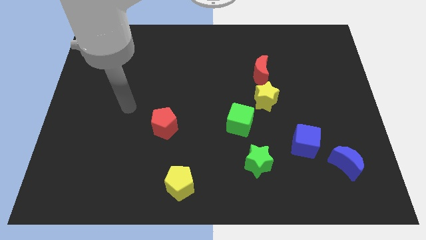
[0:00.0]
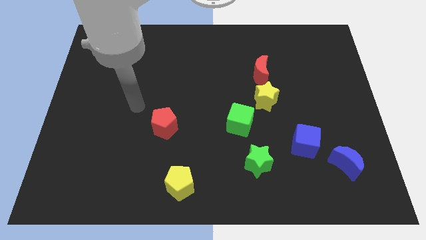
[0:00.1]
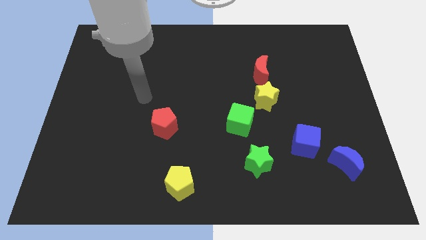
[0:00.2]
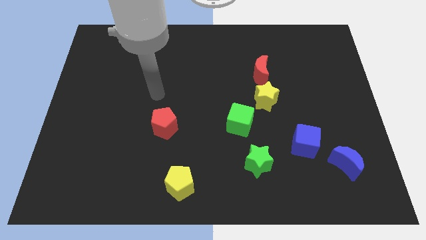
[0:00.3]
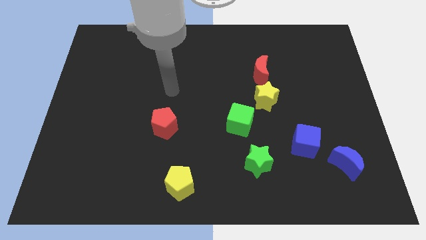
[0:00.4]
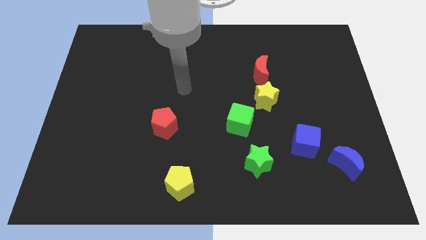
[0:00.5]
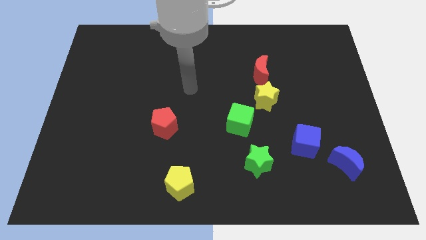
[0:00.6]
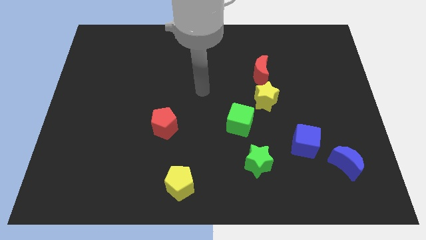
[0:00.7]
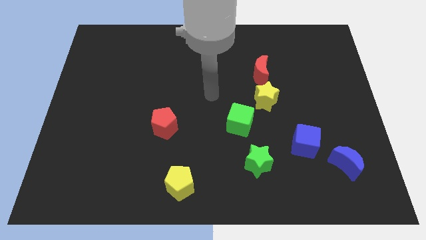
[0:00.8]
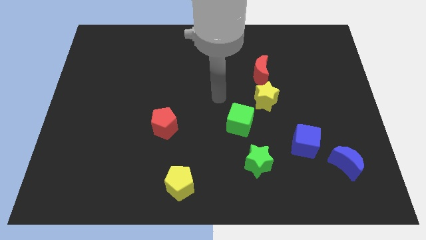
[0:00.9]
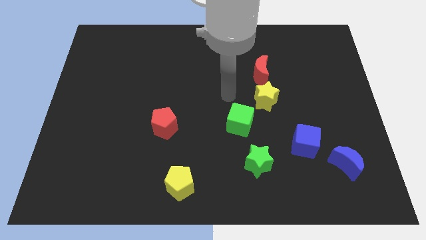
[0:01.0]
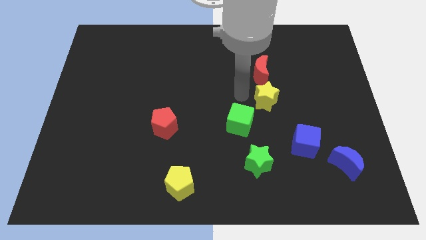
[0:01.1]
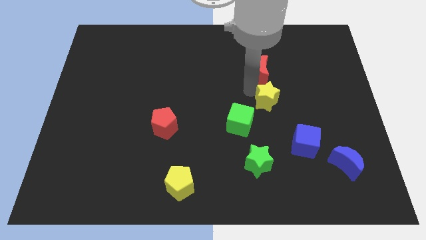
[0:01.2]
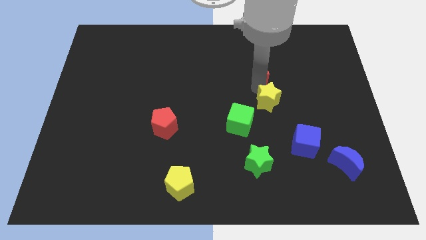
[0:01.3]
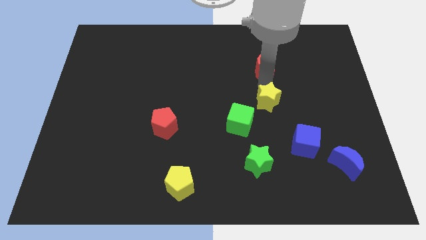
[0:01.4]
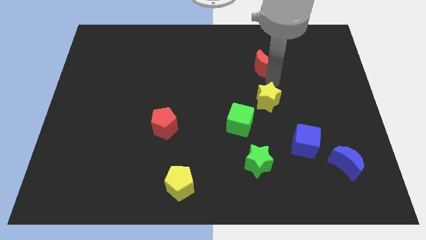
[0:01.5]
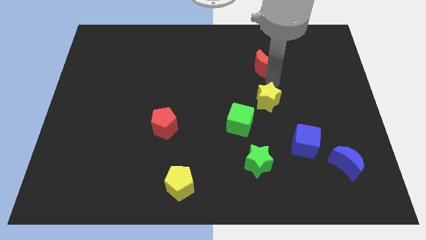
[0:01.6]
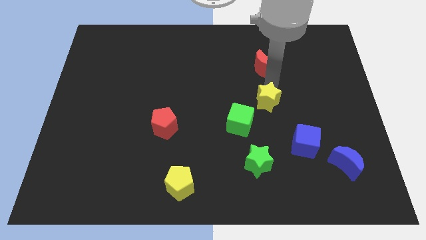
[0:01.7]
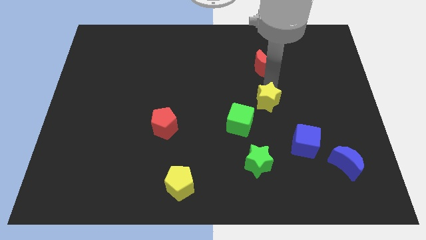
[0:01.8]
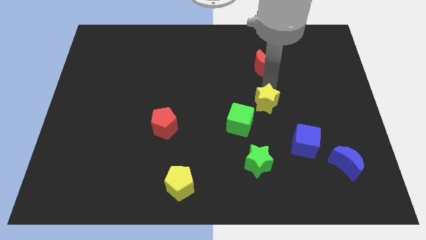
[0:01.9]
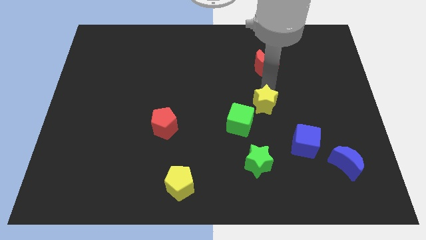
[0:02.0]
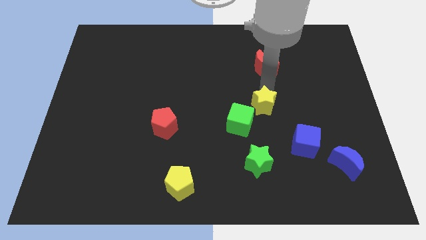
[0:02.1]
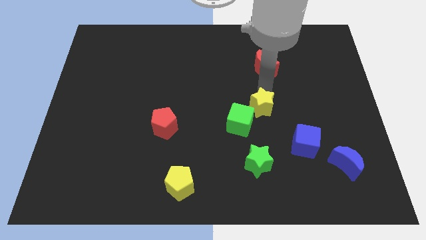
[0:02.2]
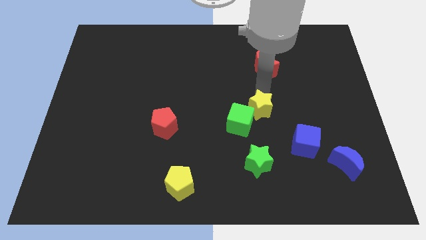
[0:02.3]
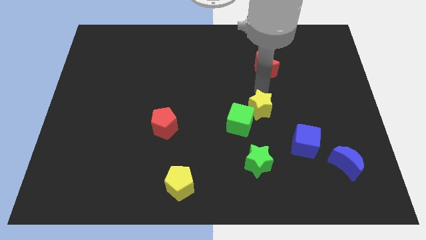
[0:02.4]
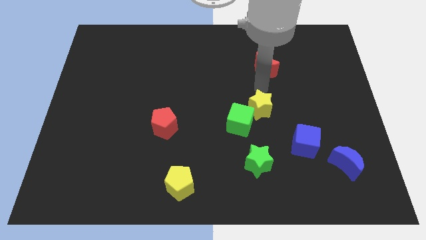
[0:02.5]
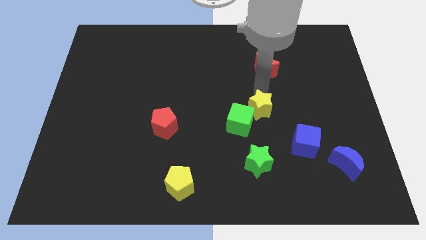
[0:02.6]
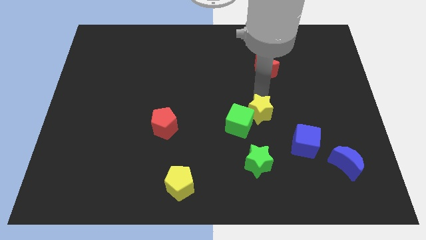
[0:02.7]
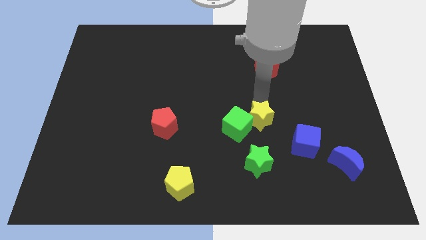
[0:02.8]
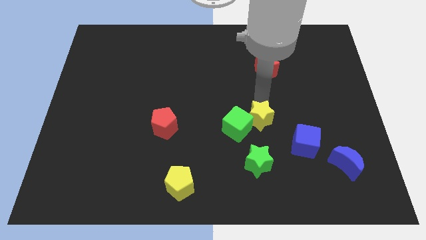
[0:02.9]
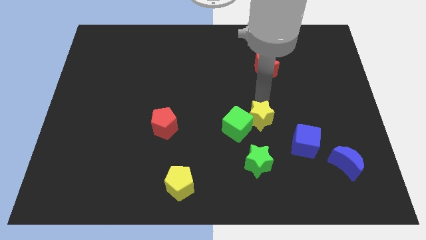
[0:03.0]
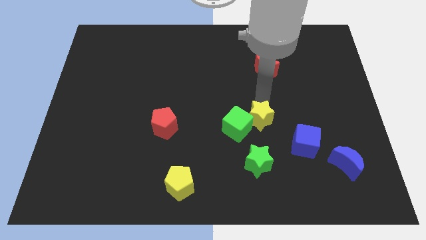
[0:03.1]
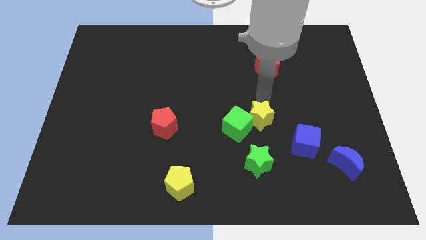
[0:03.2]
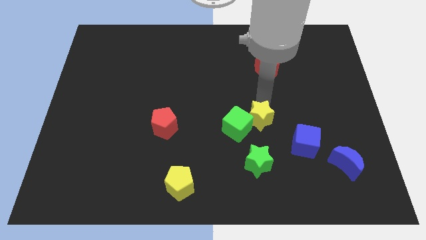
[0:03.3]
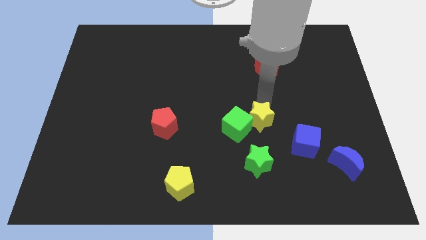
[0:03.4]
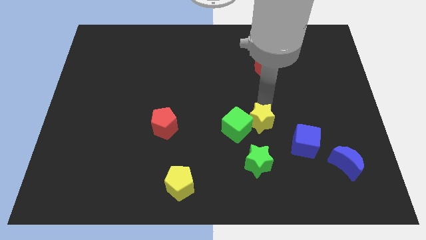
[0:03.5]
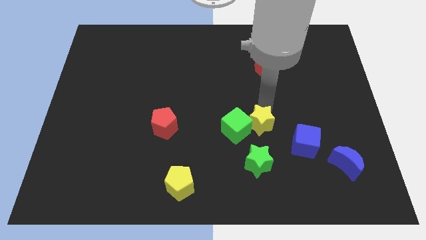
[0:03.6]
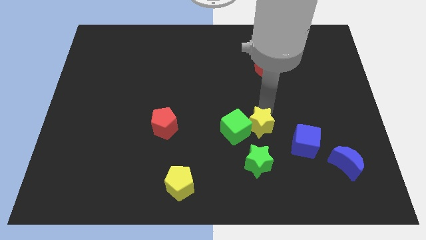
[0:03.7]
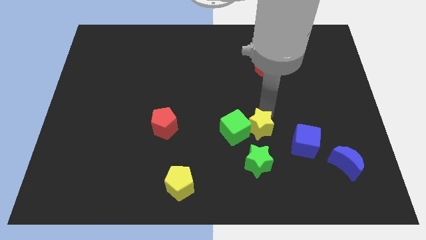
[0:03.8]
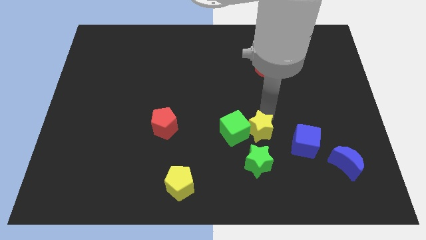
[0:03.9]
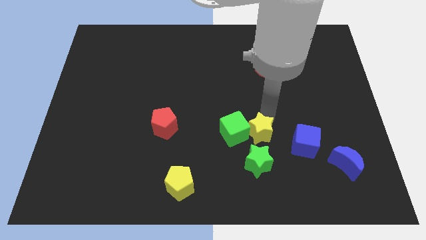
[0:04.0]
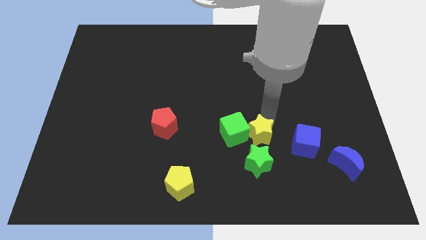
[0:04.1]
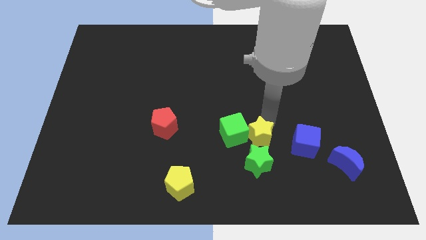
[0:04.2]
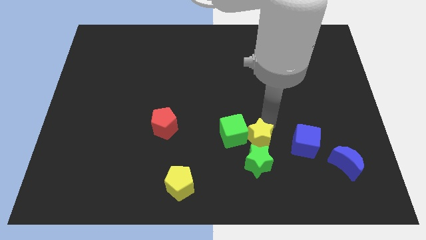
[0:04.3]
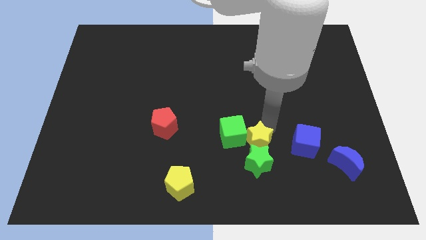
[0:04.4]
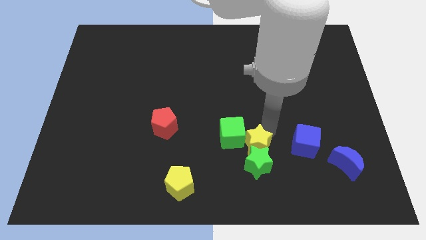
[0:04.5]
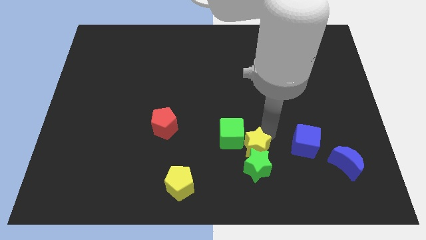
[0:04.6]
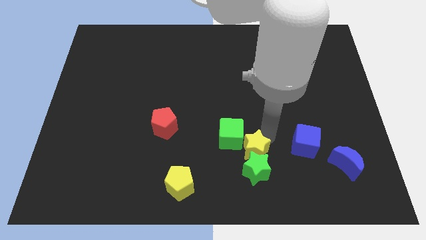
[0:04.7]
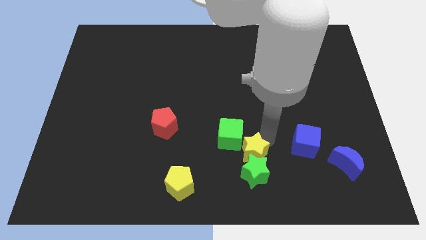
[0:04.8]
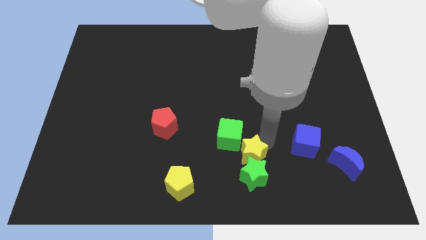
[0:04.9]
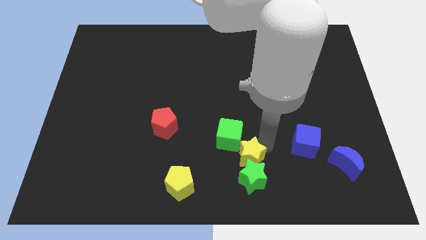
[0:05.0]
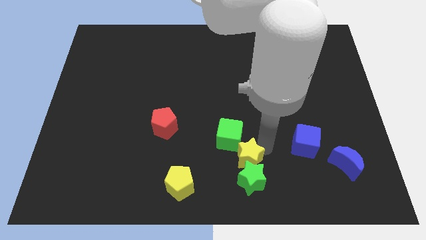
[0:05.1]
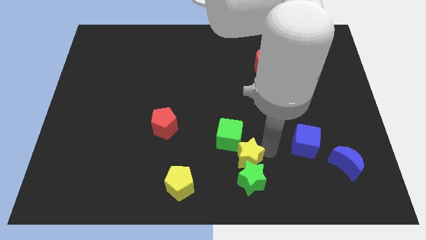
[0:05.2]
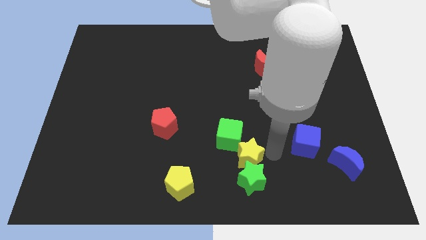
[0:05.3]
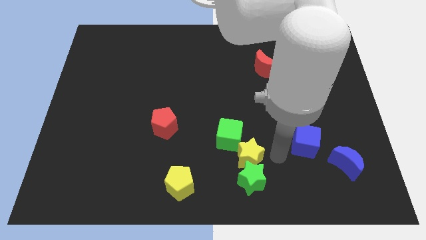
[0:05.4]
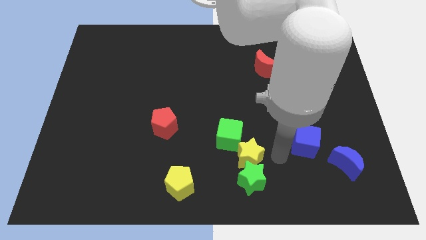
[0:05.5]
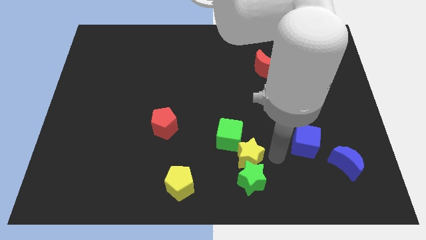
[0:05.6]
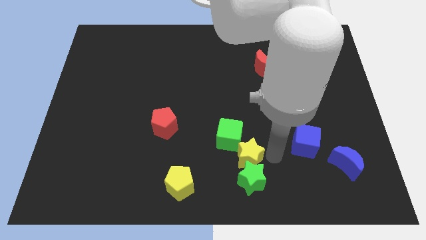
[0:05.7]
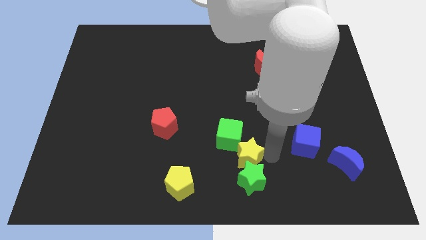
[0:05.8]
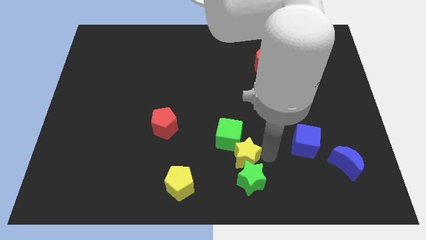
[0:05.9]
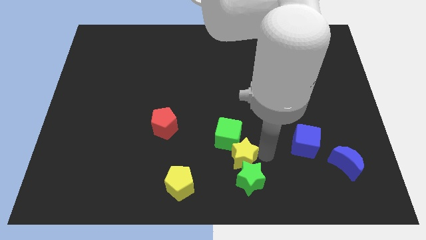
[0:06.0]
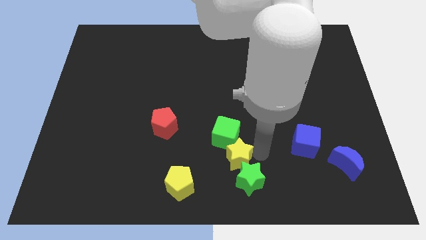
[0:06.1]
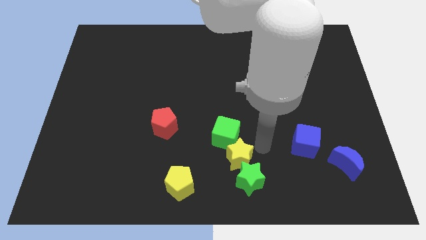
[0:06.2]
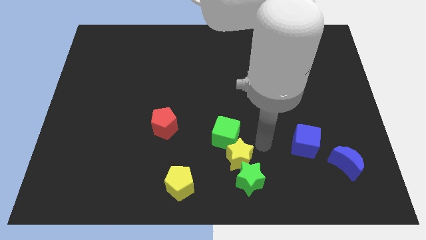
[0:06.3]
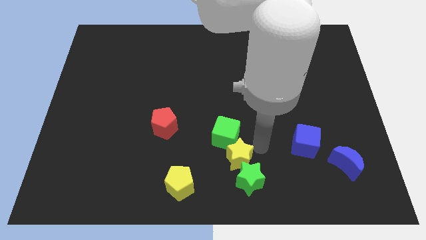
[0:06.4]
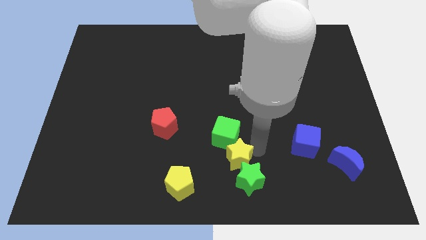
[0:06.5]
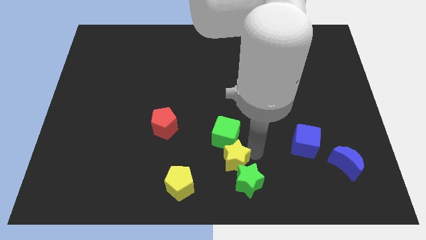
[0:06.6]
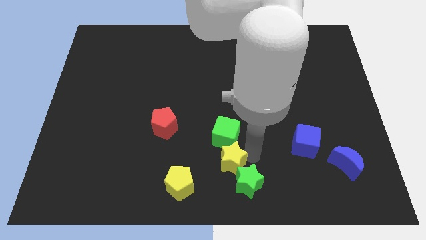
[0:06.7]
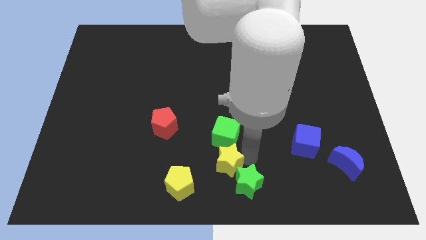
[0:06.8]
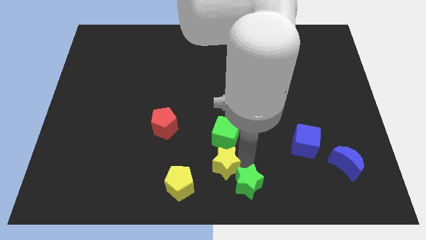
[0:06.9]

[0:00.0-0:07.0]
slide the yellow star to the left of the green star

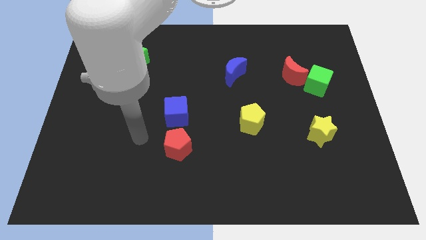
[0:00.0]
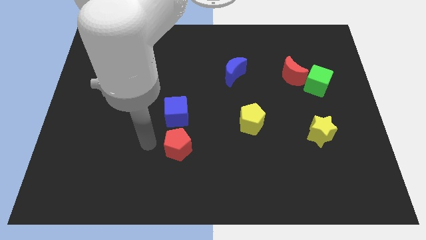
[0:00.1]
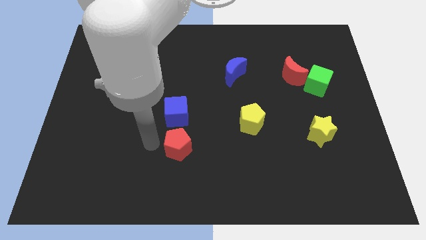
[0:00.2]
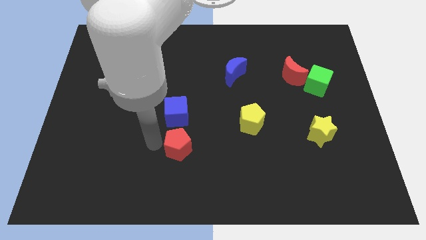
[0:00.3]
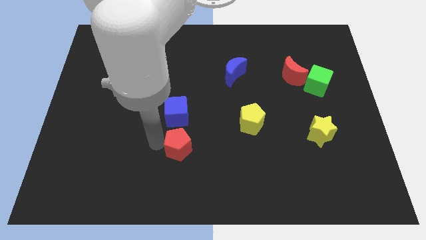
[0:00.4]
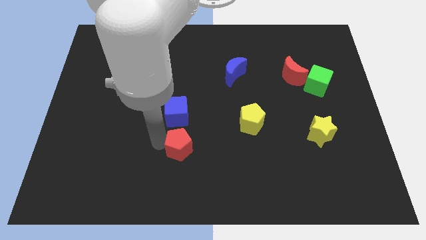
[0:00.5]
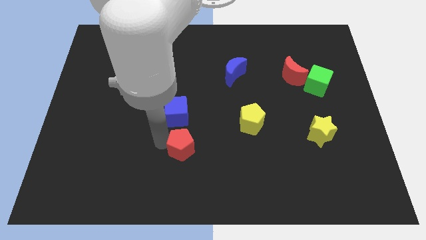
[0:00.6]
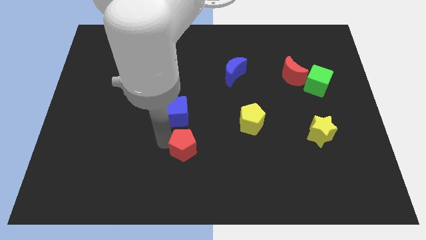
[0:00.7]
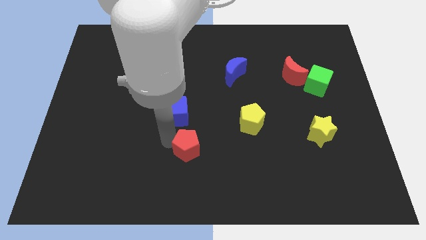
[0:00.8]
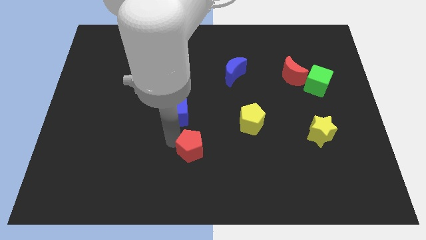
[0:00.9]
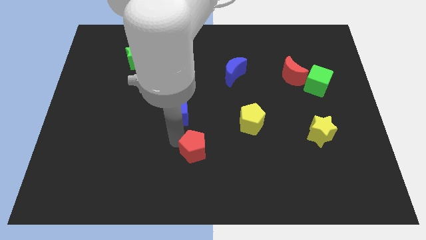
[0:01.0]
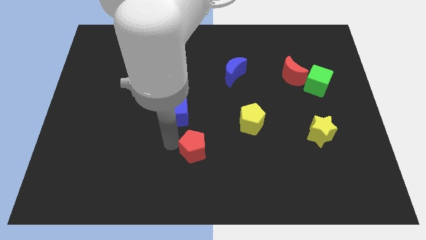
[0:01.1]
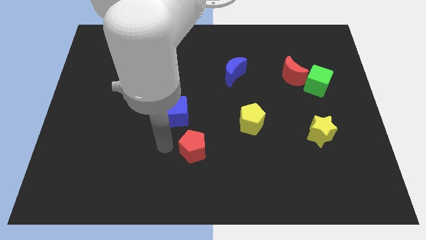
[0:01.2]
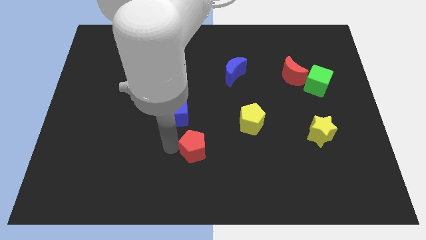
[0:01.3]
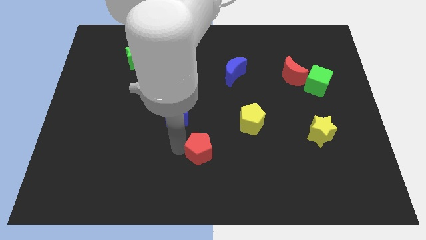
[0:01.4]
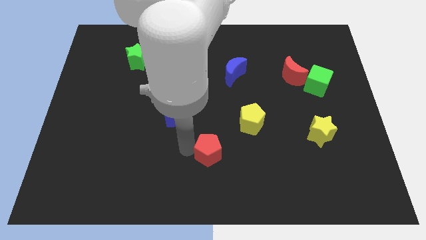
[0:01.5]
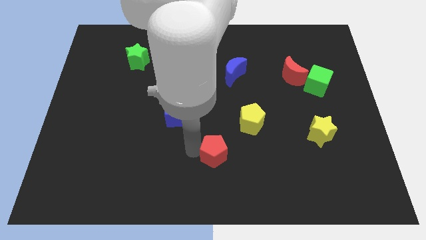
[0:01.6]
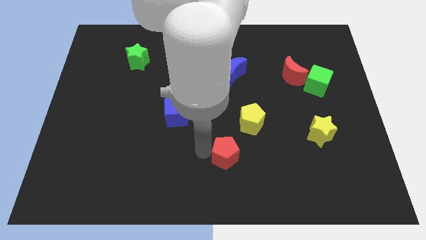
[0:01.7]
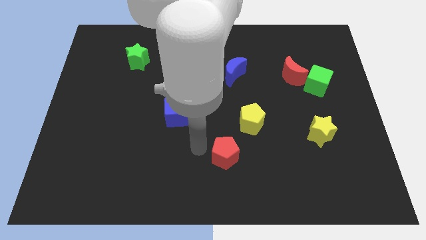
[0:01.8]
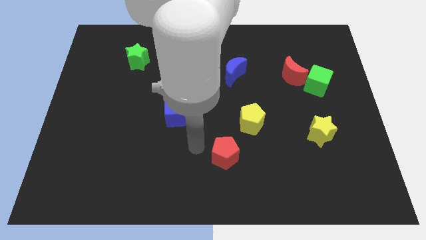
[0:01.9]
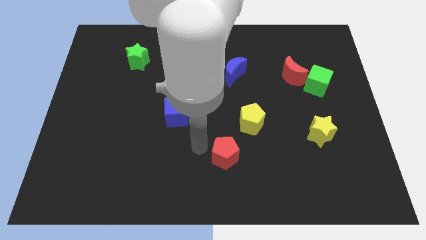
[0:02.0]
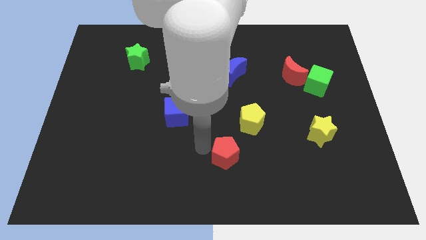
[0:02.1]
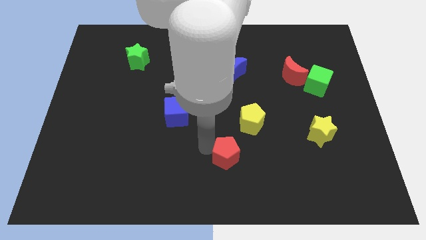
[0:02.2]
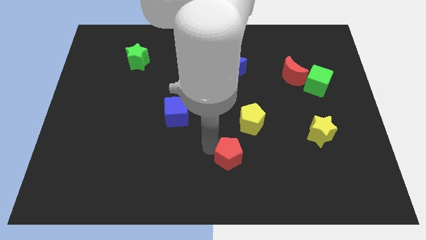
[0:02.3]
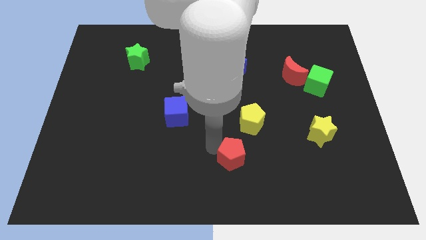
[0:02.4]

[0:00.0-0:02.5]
move the red pentagon to the bottom of the yellow pentagon
